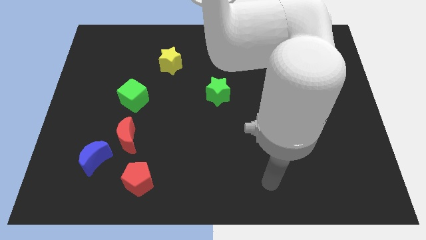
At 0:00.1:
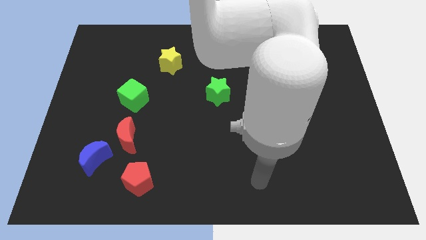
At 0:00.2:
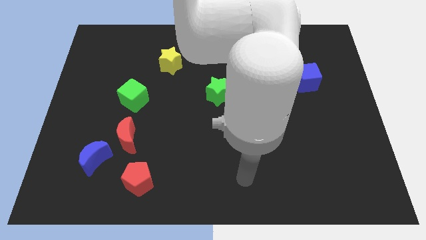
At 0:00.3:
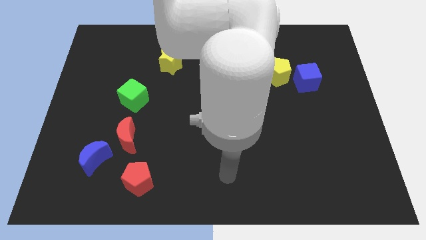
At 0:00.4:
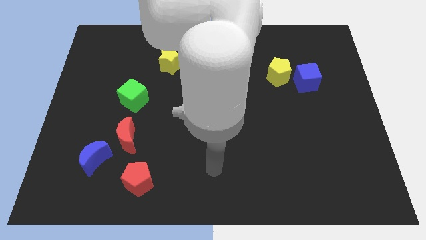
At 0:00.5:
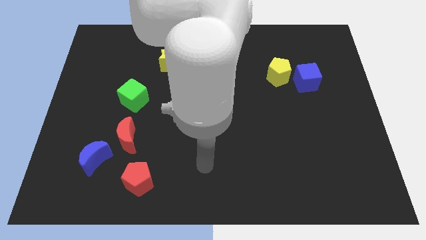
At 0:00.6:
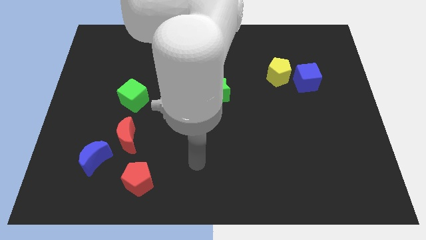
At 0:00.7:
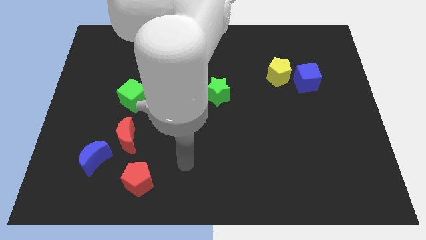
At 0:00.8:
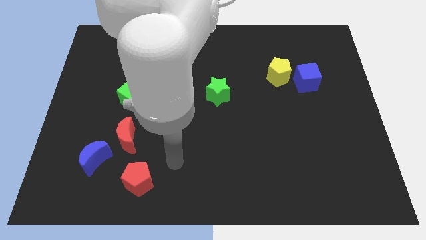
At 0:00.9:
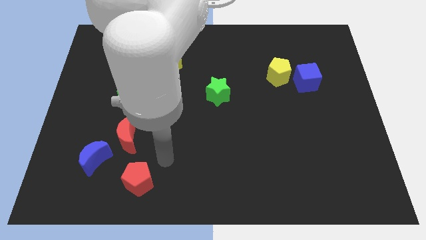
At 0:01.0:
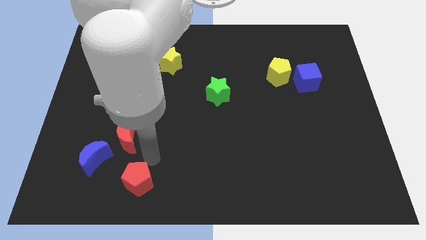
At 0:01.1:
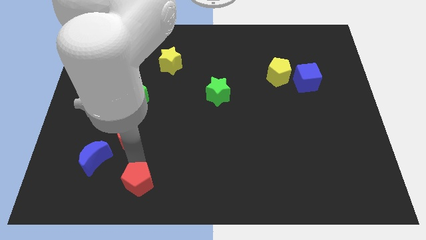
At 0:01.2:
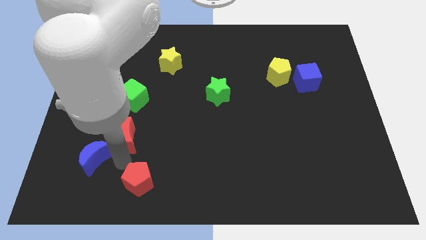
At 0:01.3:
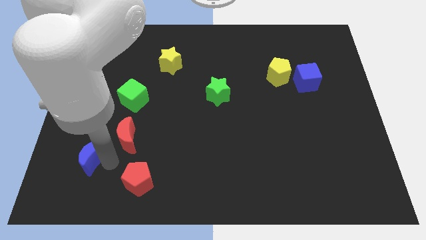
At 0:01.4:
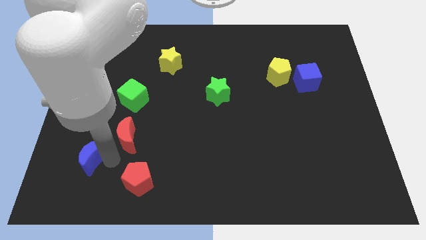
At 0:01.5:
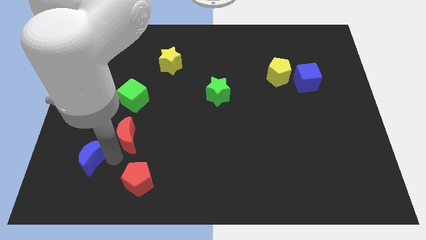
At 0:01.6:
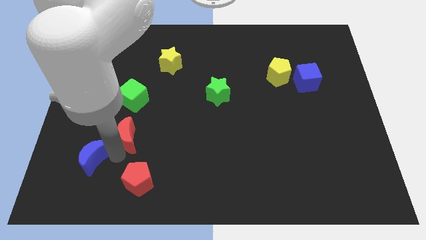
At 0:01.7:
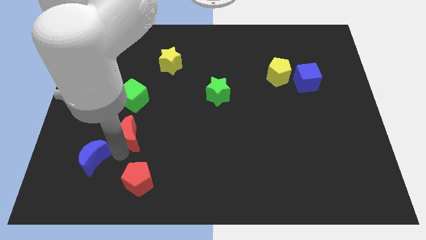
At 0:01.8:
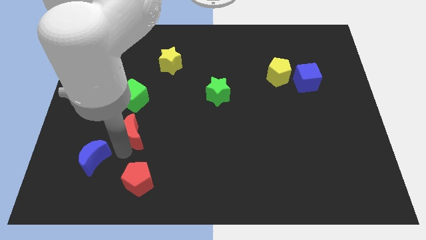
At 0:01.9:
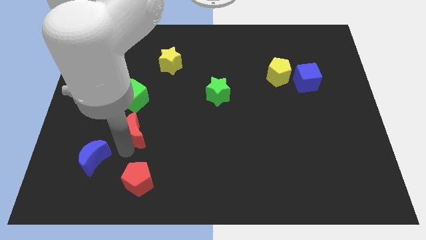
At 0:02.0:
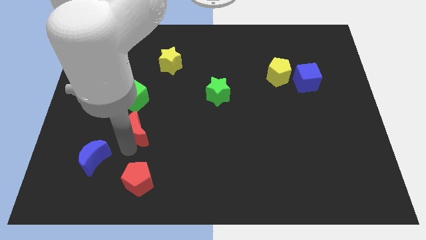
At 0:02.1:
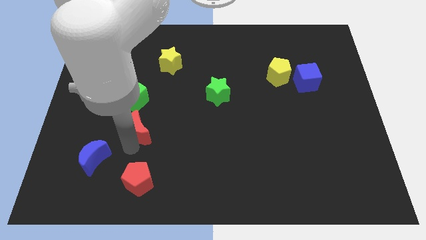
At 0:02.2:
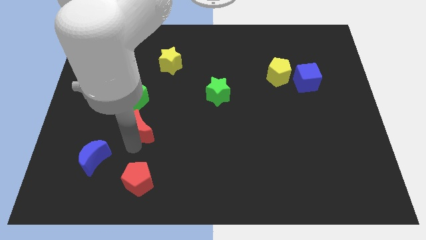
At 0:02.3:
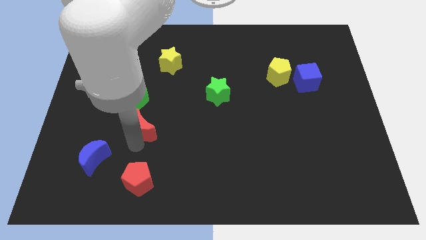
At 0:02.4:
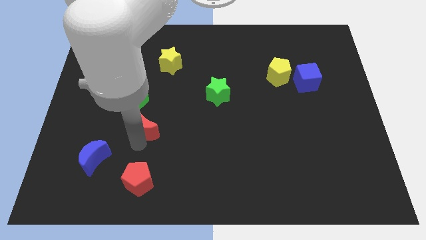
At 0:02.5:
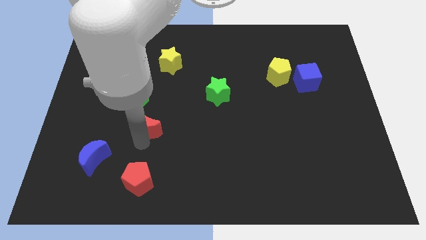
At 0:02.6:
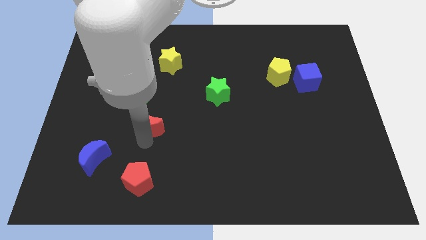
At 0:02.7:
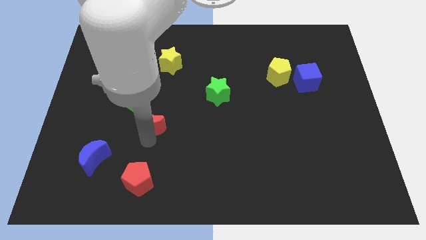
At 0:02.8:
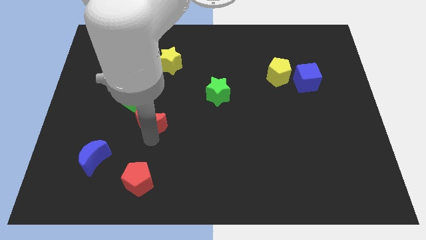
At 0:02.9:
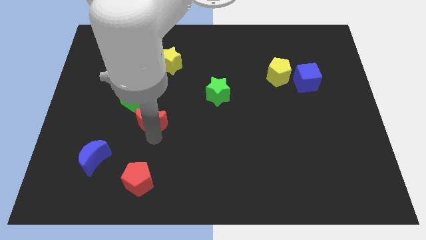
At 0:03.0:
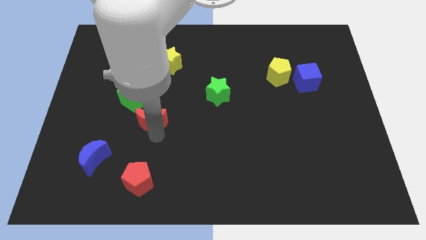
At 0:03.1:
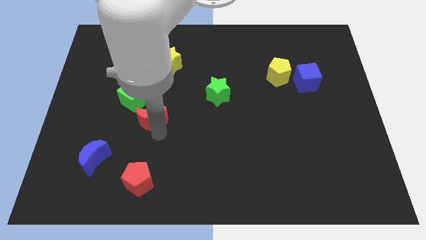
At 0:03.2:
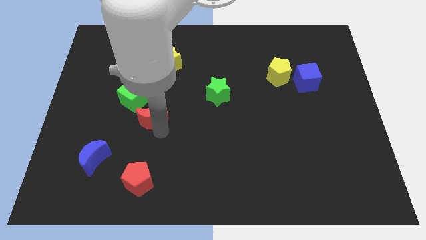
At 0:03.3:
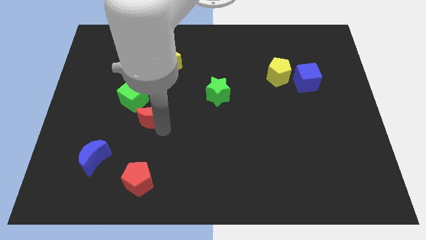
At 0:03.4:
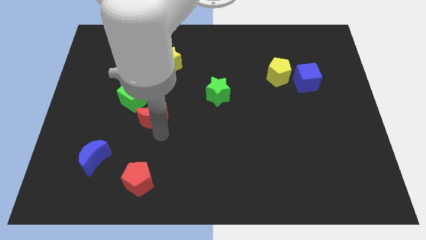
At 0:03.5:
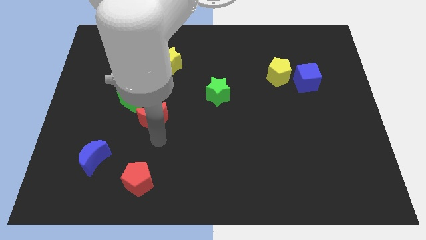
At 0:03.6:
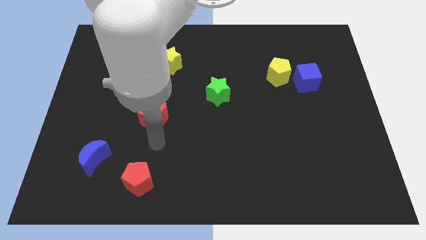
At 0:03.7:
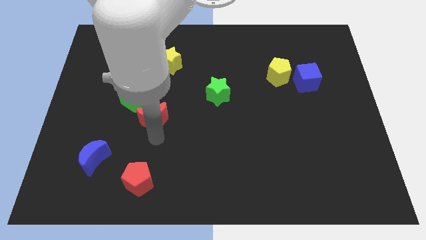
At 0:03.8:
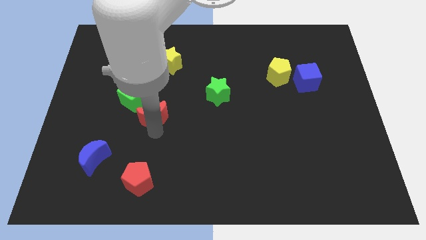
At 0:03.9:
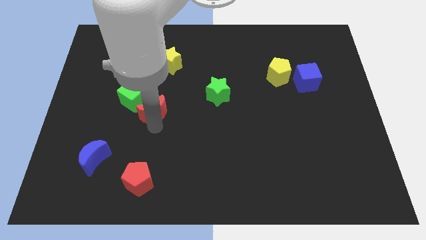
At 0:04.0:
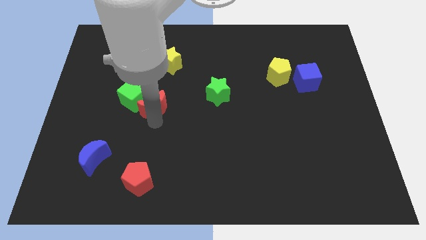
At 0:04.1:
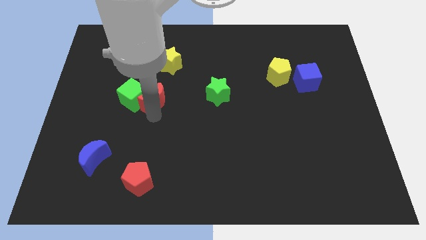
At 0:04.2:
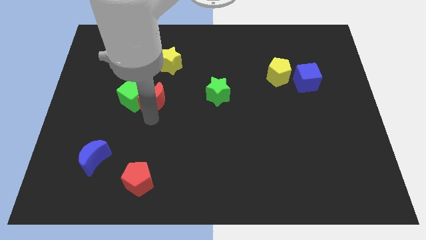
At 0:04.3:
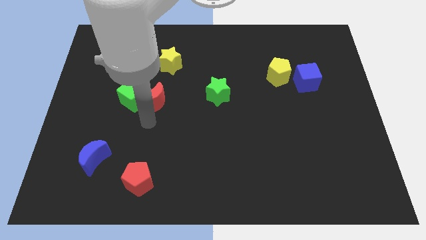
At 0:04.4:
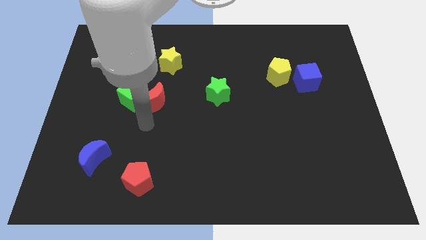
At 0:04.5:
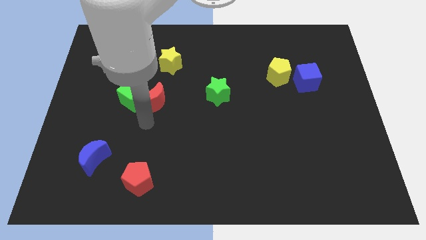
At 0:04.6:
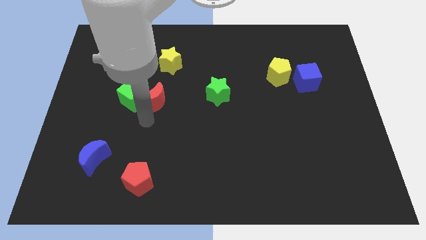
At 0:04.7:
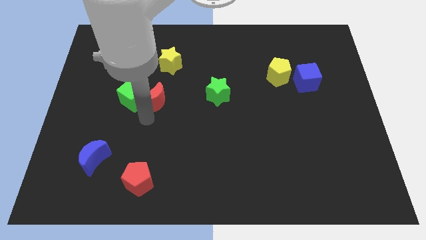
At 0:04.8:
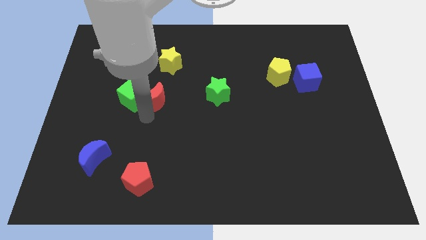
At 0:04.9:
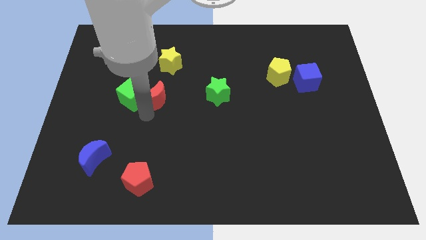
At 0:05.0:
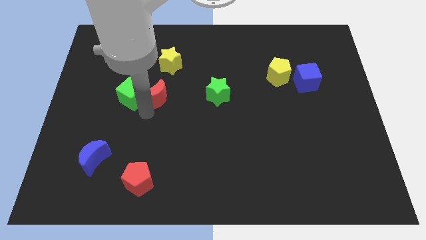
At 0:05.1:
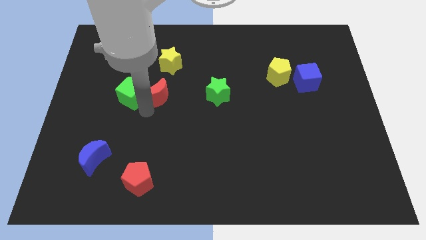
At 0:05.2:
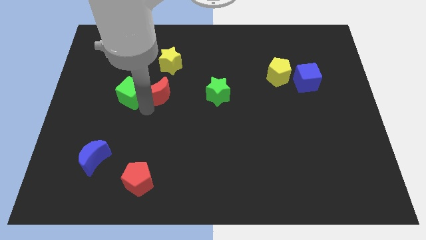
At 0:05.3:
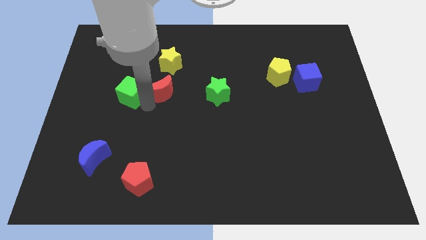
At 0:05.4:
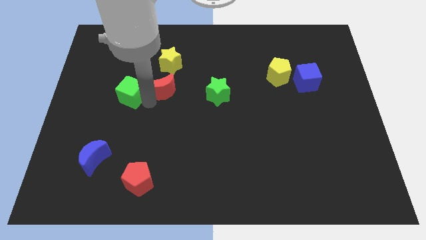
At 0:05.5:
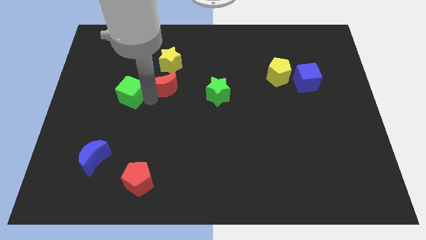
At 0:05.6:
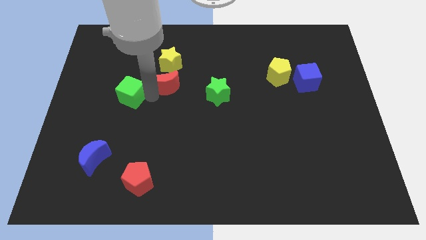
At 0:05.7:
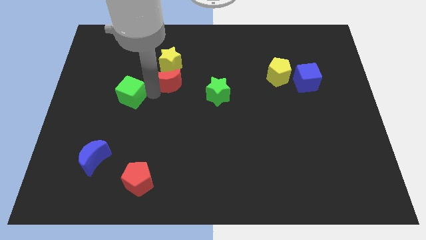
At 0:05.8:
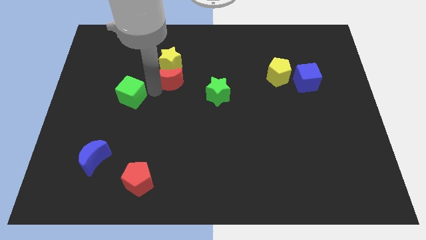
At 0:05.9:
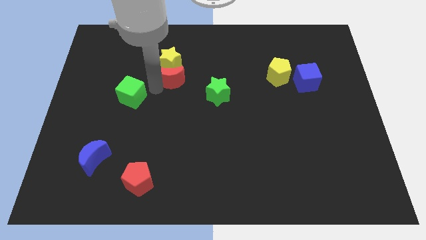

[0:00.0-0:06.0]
put the red moon next to the yellow star

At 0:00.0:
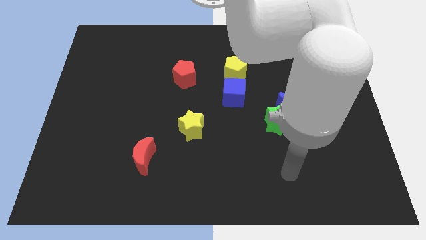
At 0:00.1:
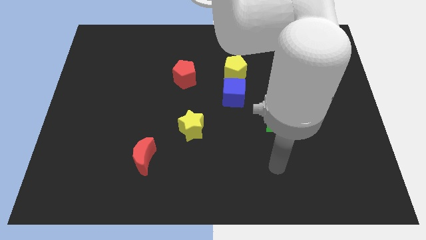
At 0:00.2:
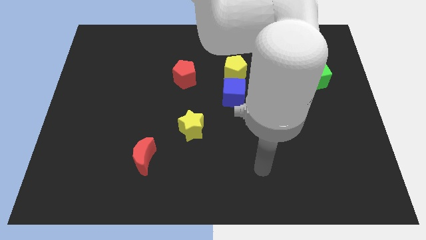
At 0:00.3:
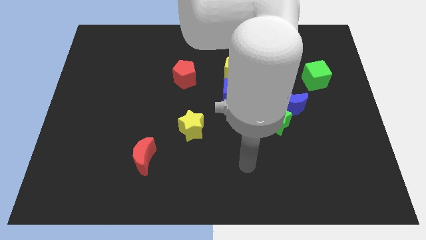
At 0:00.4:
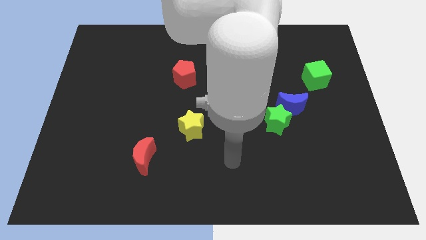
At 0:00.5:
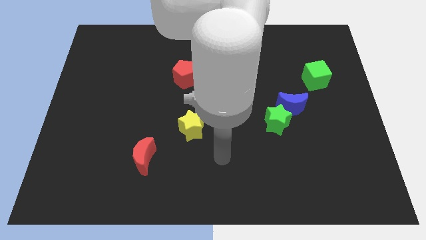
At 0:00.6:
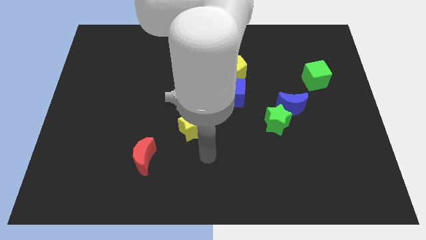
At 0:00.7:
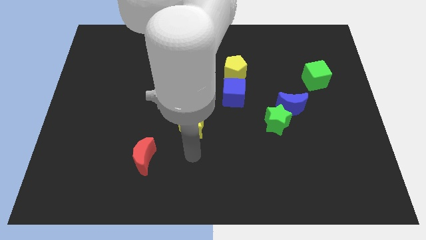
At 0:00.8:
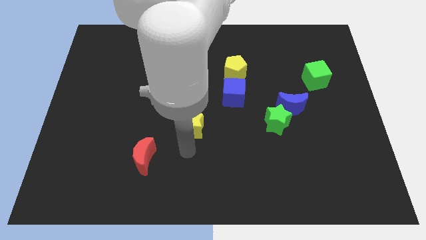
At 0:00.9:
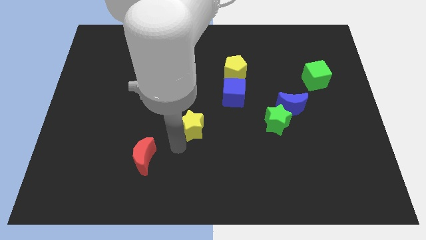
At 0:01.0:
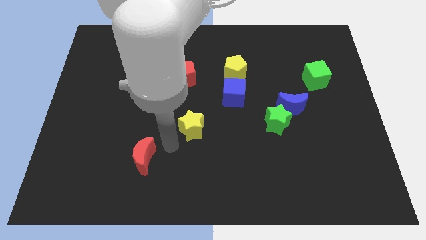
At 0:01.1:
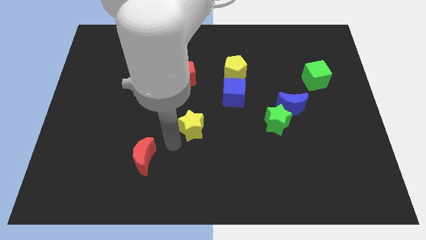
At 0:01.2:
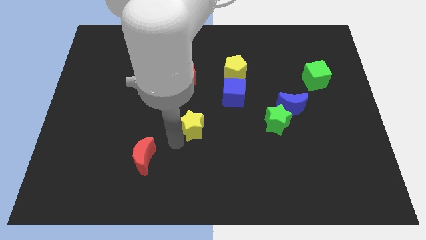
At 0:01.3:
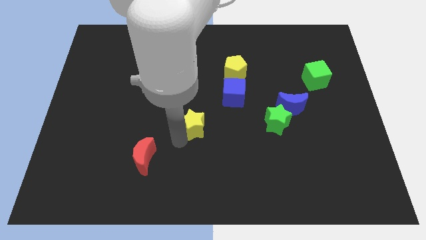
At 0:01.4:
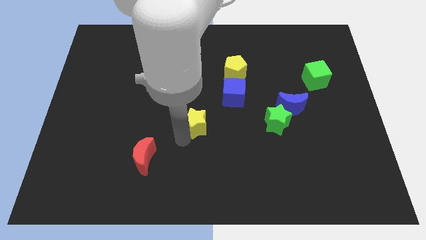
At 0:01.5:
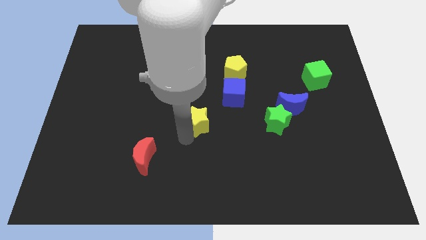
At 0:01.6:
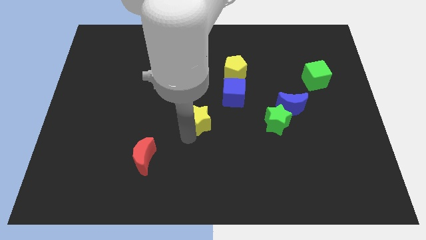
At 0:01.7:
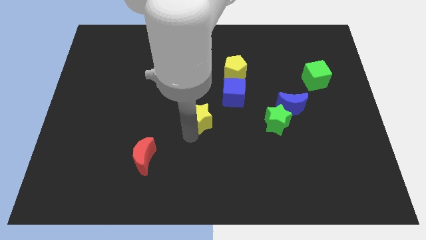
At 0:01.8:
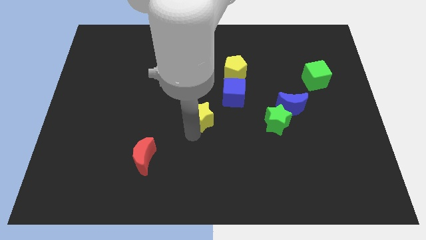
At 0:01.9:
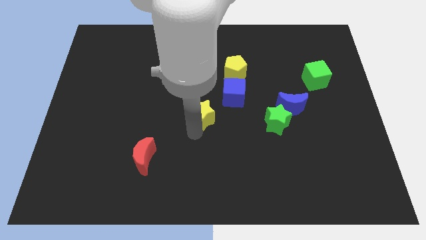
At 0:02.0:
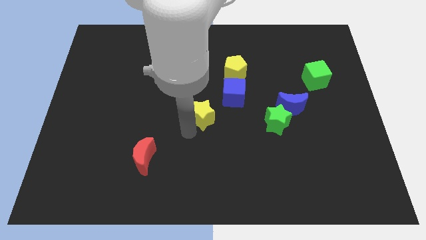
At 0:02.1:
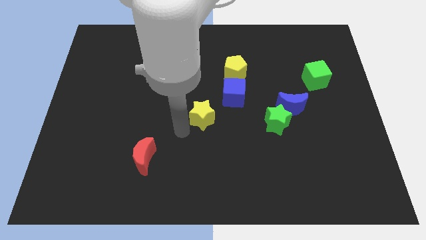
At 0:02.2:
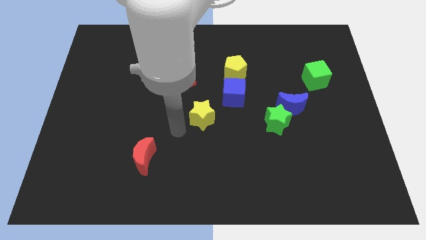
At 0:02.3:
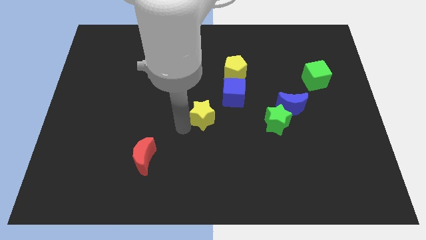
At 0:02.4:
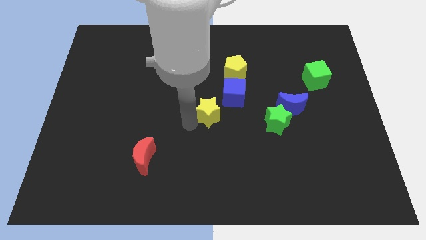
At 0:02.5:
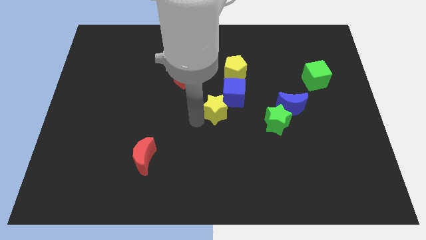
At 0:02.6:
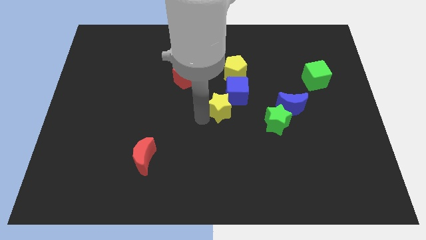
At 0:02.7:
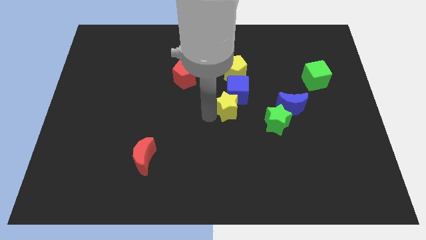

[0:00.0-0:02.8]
put the yellow star next to the blue cube
